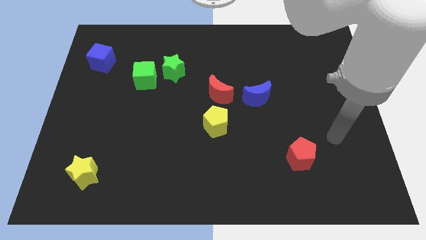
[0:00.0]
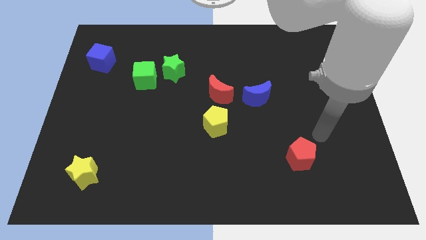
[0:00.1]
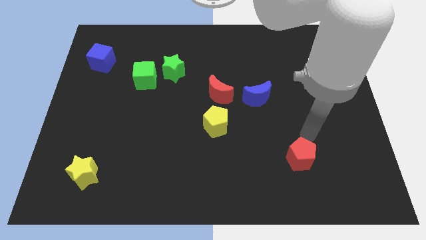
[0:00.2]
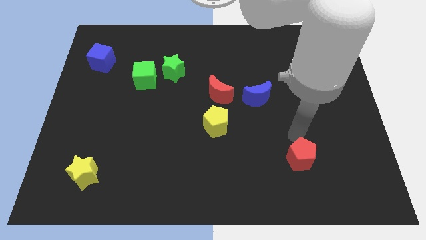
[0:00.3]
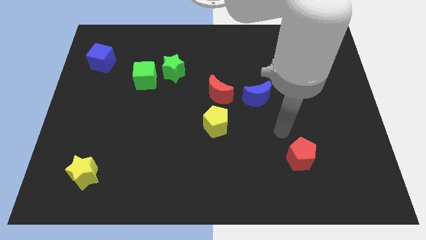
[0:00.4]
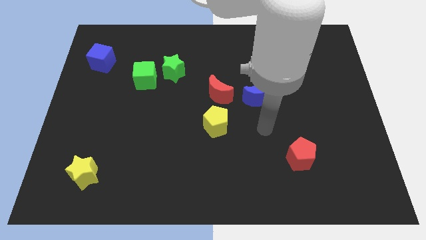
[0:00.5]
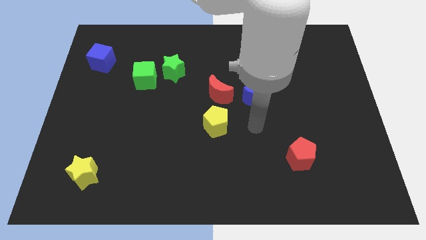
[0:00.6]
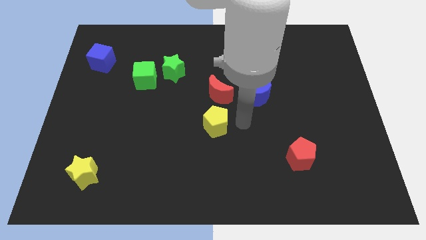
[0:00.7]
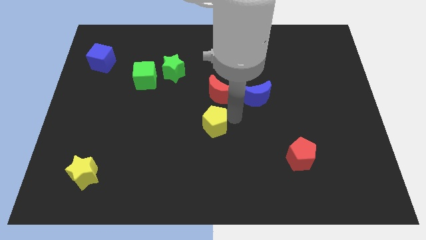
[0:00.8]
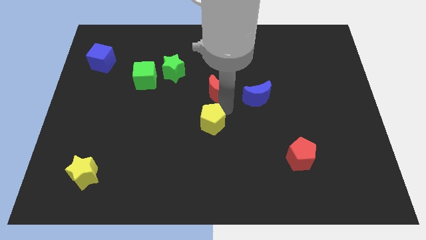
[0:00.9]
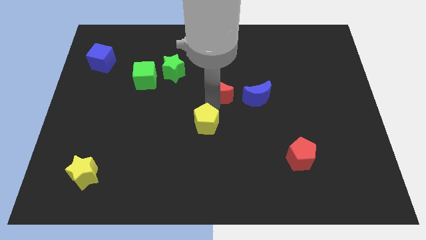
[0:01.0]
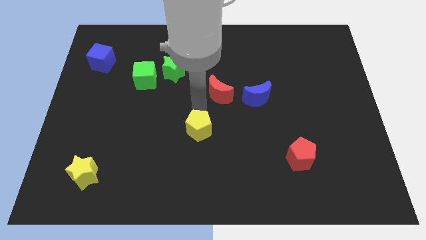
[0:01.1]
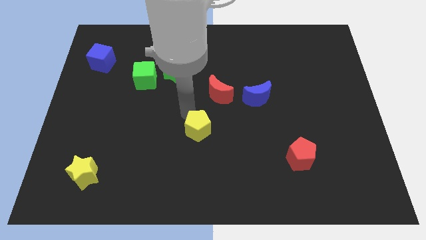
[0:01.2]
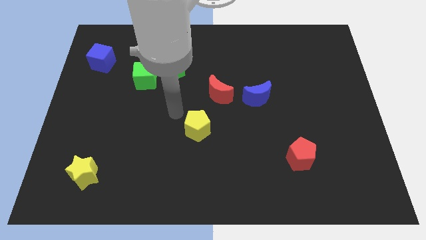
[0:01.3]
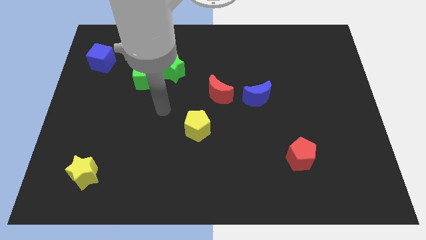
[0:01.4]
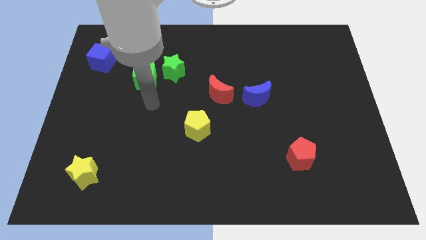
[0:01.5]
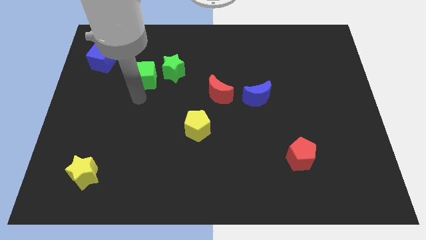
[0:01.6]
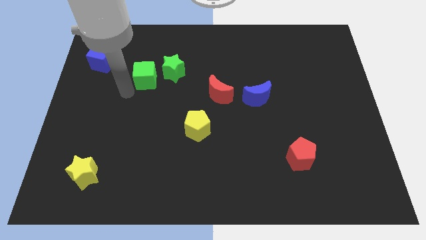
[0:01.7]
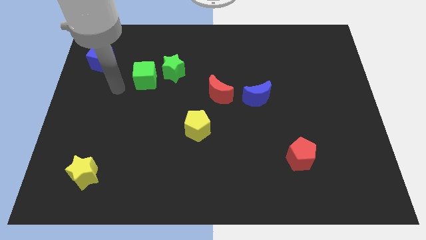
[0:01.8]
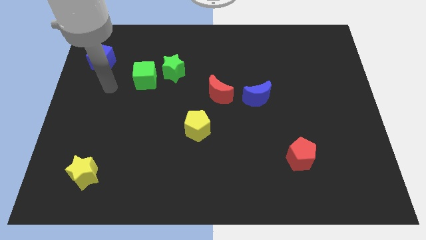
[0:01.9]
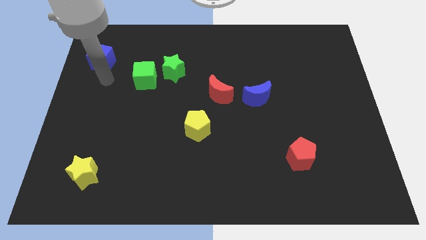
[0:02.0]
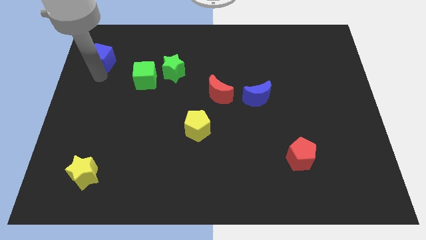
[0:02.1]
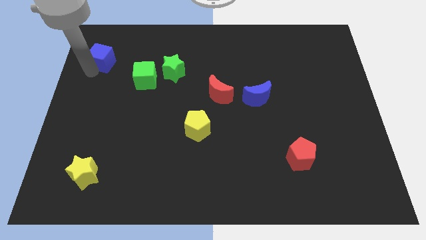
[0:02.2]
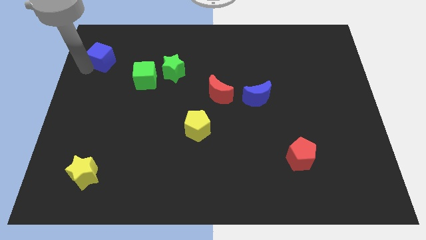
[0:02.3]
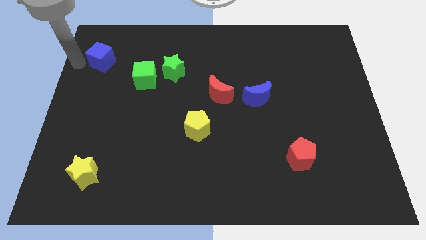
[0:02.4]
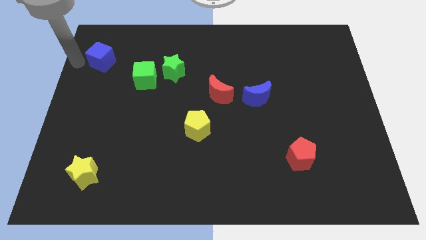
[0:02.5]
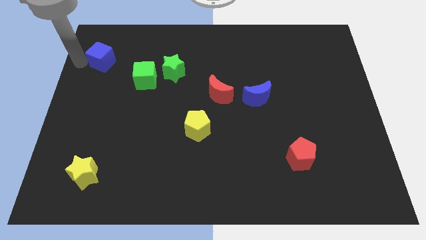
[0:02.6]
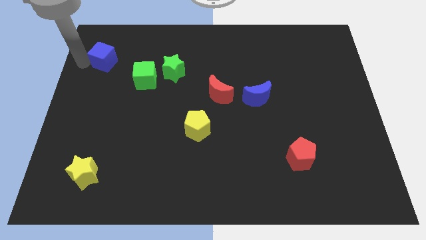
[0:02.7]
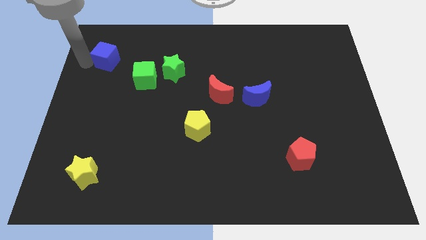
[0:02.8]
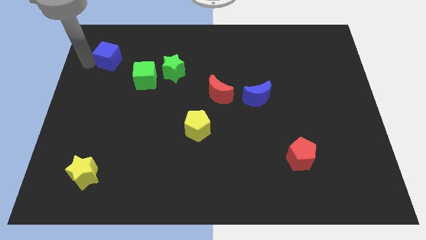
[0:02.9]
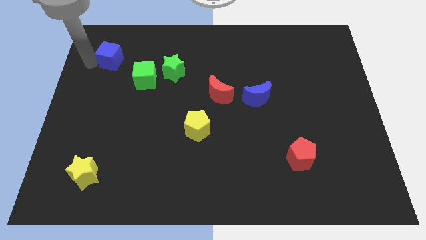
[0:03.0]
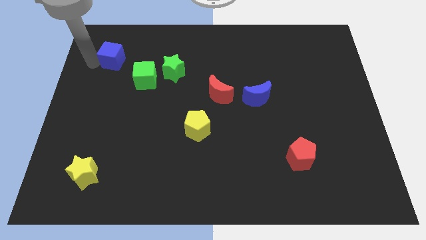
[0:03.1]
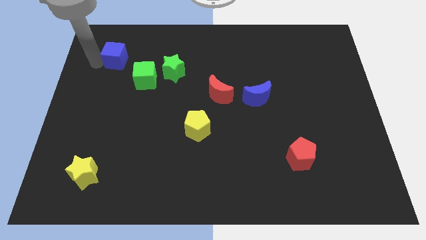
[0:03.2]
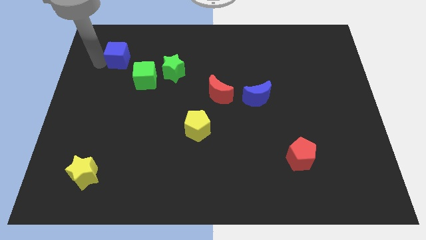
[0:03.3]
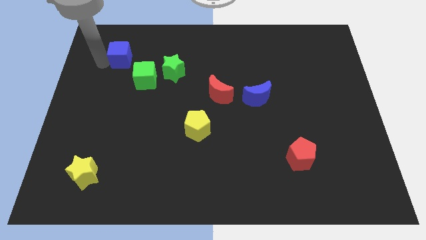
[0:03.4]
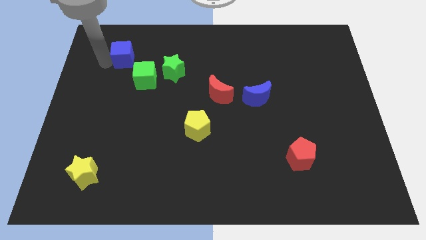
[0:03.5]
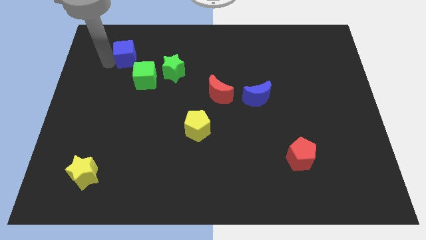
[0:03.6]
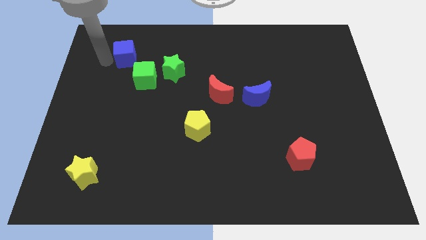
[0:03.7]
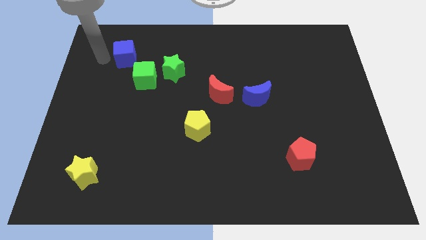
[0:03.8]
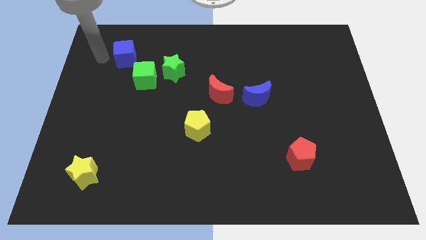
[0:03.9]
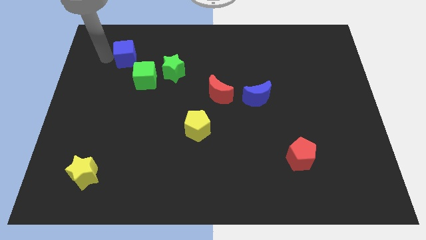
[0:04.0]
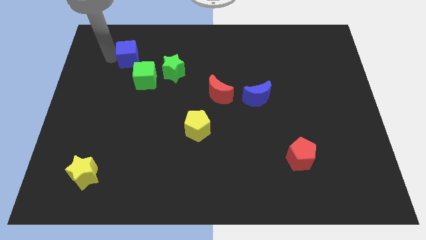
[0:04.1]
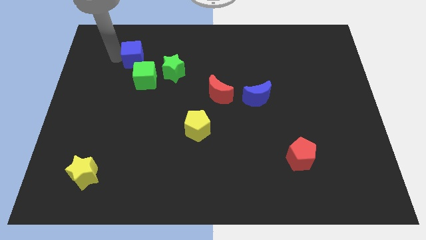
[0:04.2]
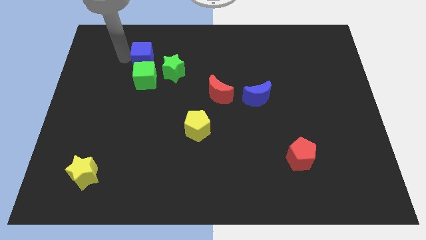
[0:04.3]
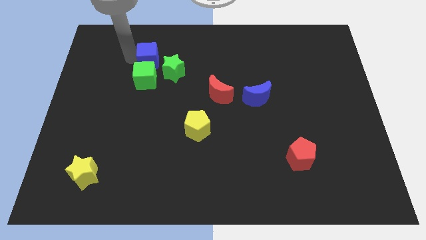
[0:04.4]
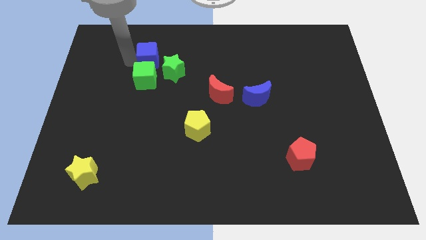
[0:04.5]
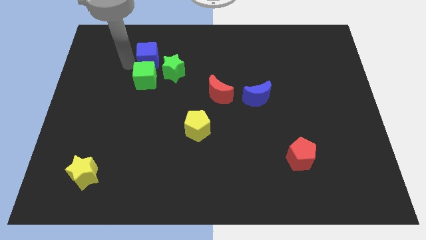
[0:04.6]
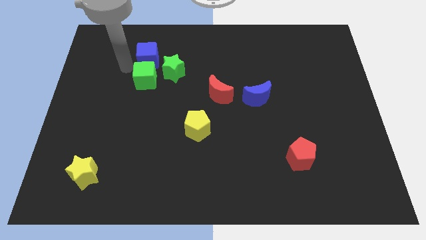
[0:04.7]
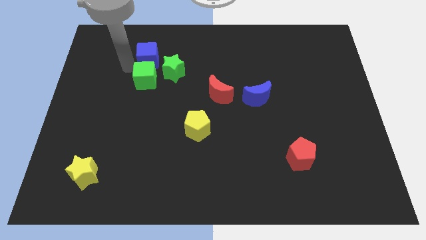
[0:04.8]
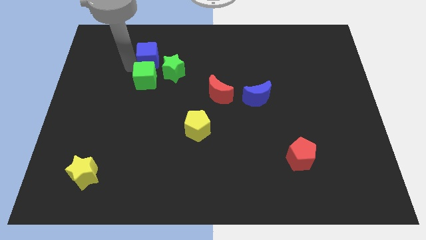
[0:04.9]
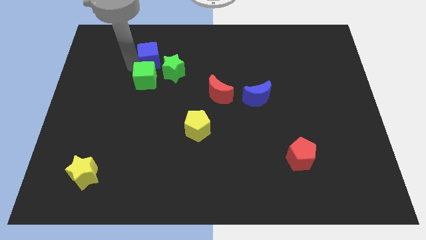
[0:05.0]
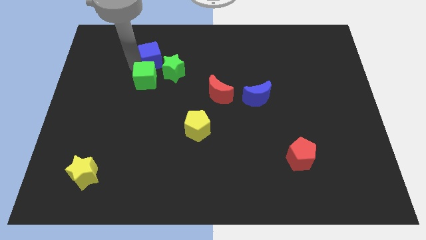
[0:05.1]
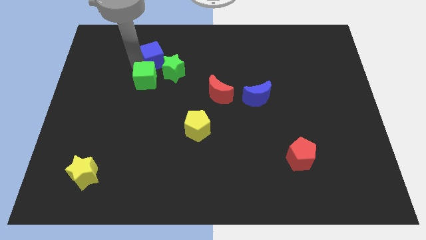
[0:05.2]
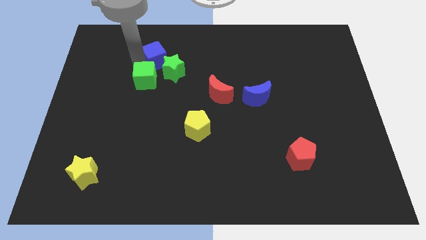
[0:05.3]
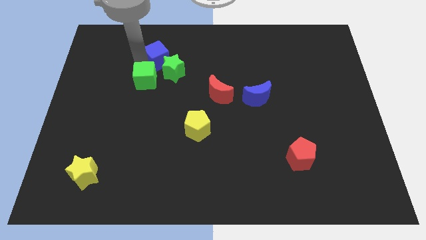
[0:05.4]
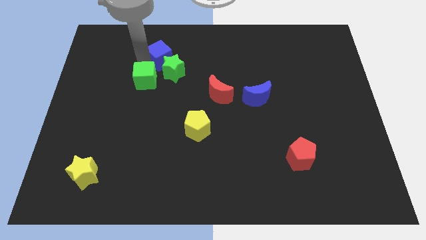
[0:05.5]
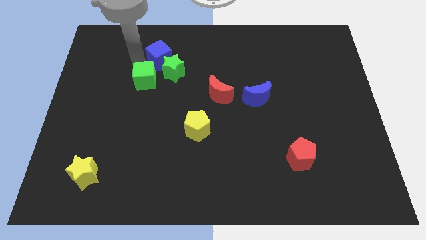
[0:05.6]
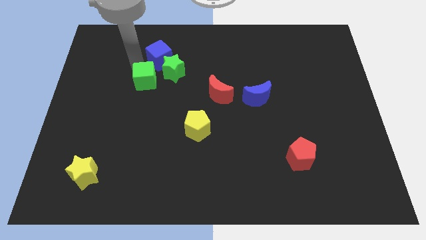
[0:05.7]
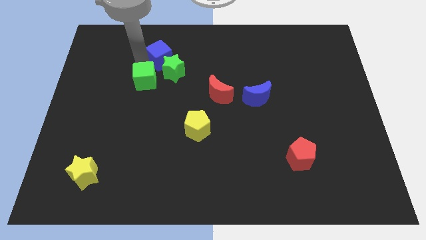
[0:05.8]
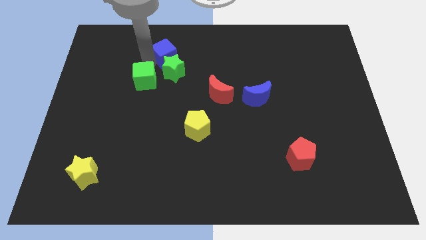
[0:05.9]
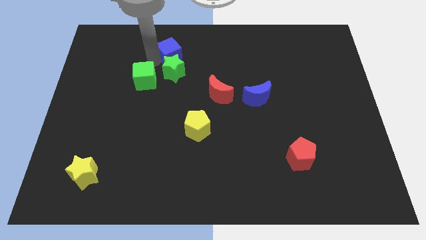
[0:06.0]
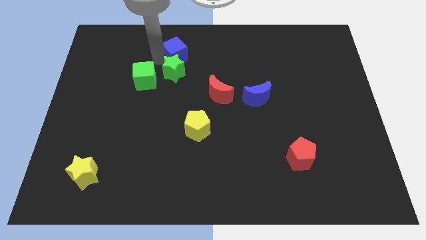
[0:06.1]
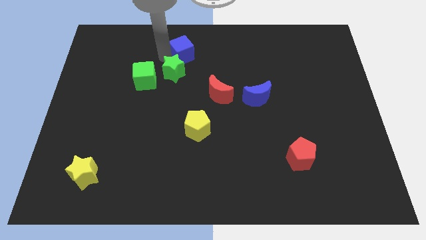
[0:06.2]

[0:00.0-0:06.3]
push the blue cube right

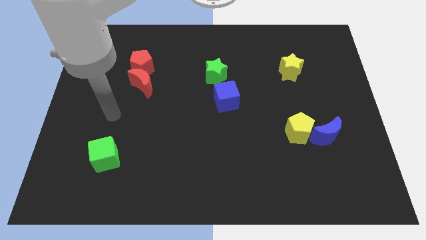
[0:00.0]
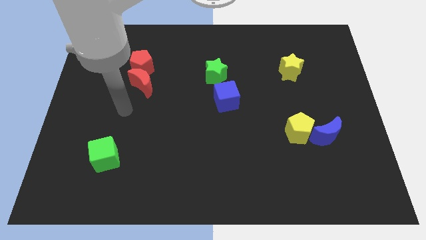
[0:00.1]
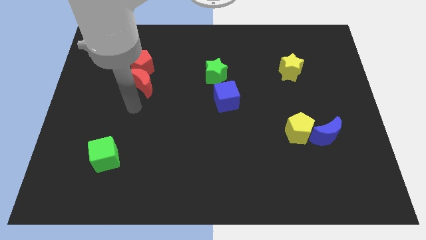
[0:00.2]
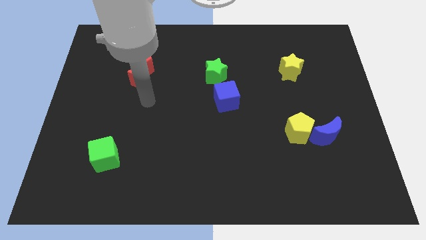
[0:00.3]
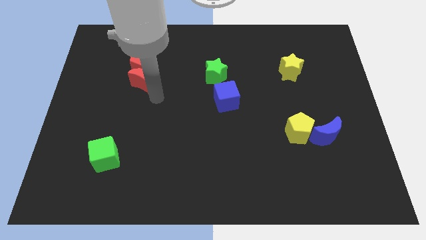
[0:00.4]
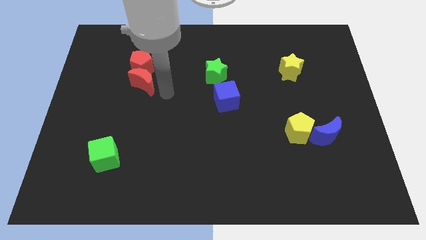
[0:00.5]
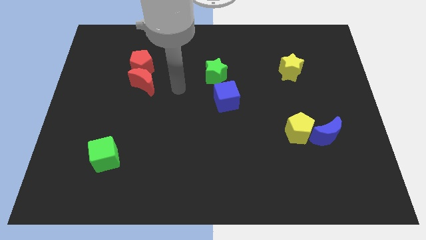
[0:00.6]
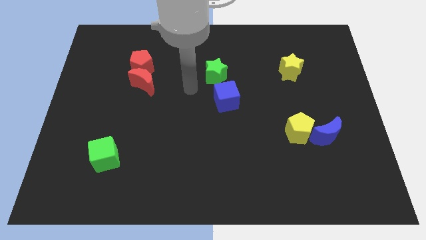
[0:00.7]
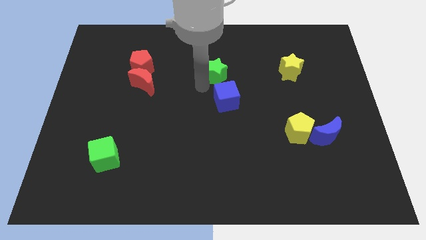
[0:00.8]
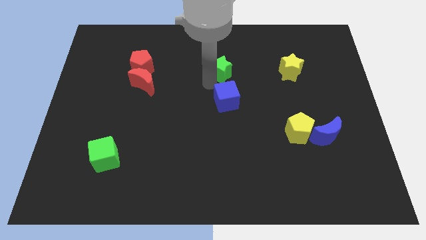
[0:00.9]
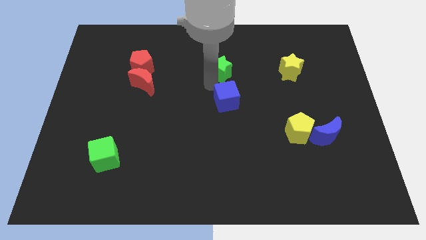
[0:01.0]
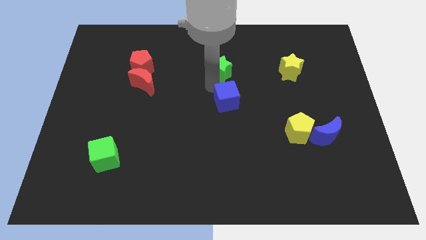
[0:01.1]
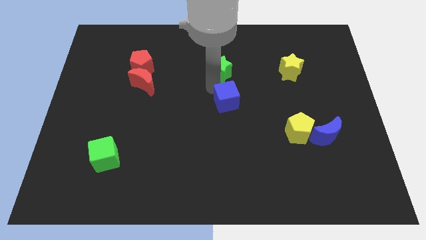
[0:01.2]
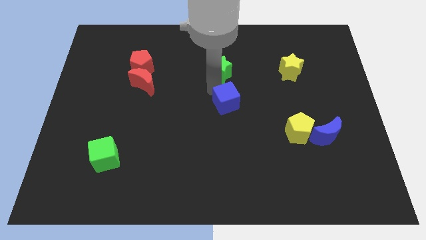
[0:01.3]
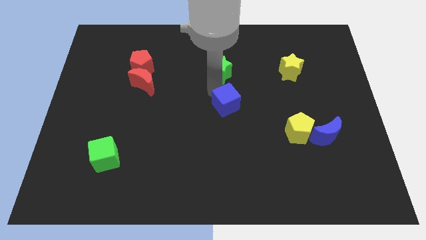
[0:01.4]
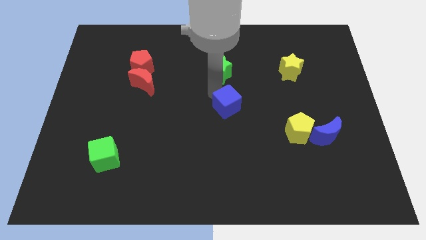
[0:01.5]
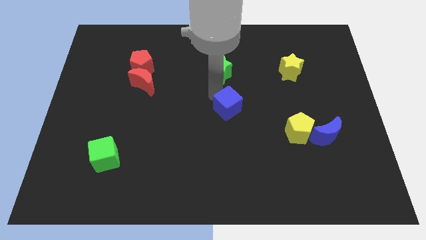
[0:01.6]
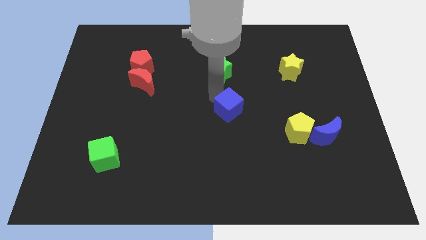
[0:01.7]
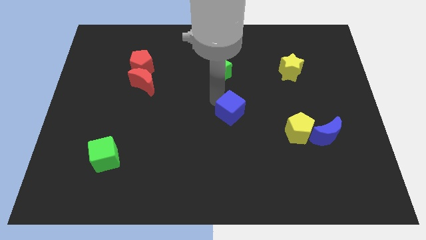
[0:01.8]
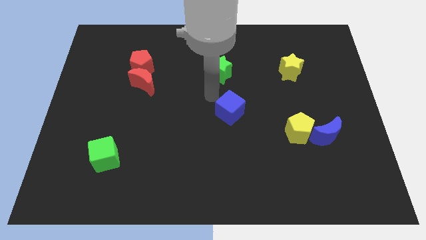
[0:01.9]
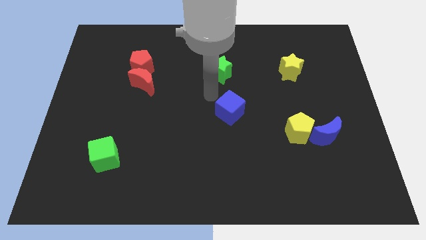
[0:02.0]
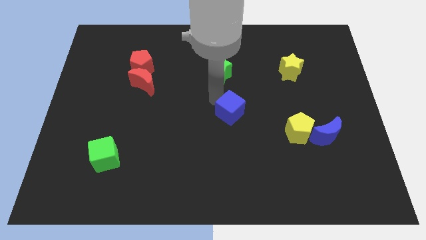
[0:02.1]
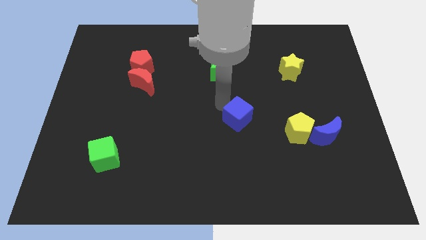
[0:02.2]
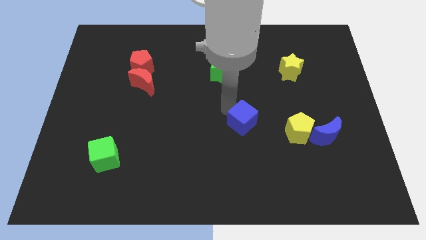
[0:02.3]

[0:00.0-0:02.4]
push the blue cube downwards and right a little bit
